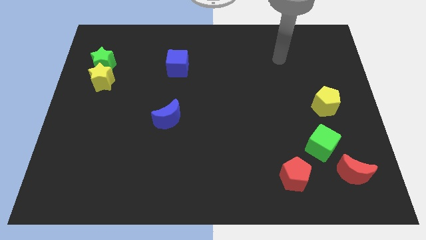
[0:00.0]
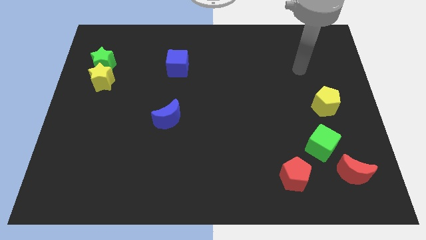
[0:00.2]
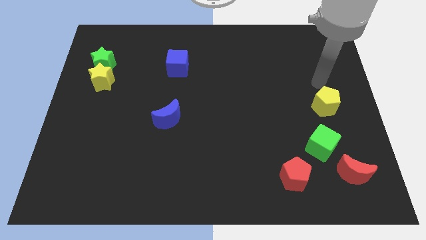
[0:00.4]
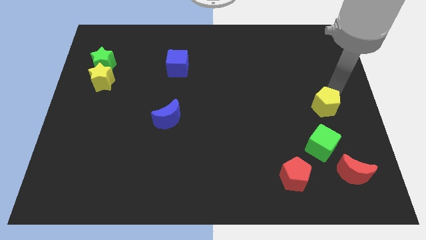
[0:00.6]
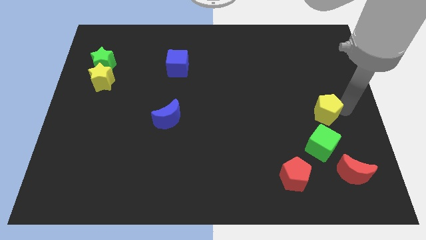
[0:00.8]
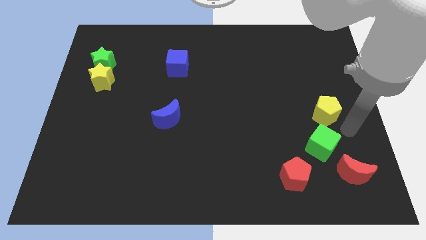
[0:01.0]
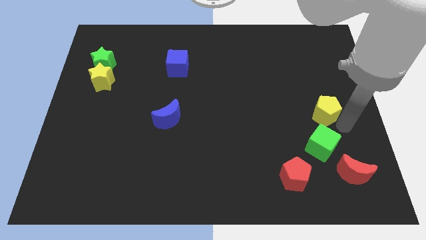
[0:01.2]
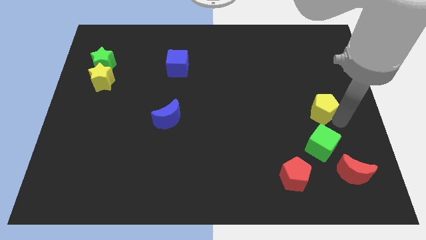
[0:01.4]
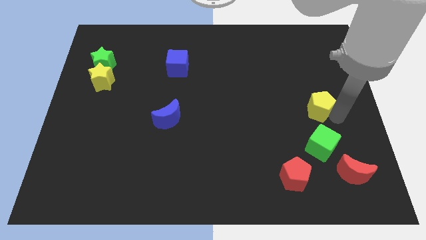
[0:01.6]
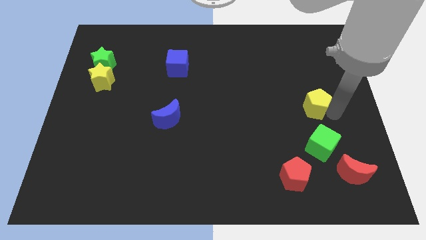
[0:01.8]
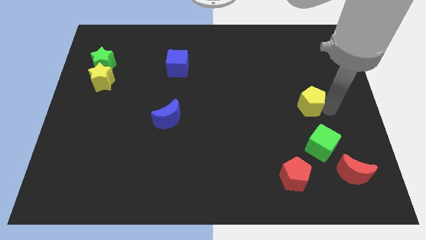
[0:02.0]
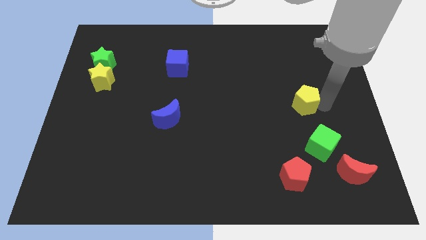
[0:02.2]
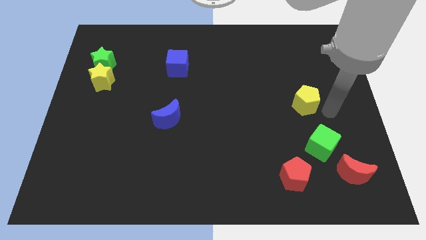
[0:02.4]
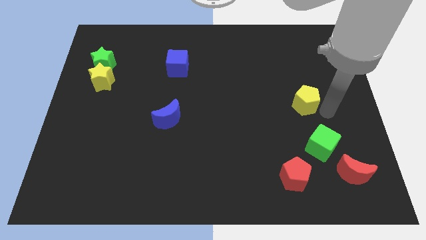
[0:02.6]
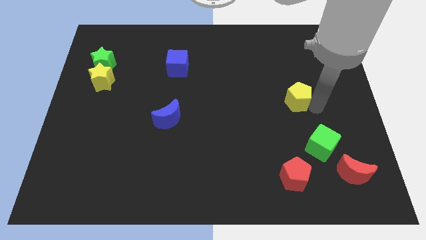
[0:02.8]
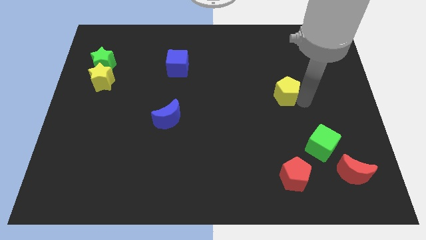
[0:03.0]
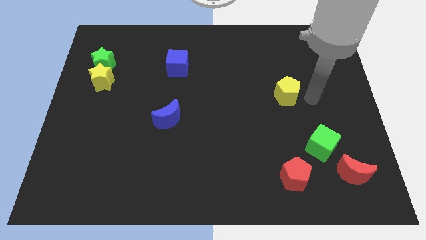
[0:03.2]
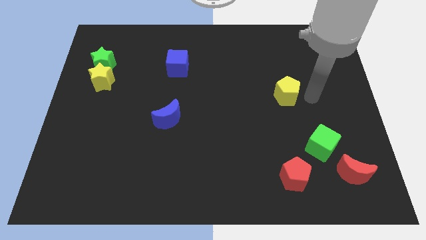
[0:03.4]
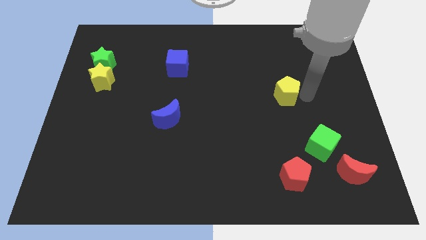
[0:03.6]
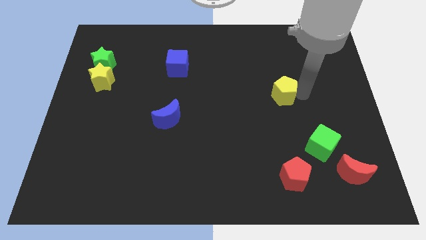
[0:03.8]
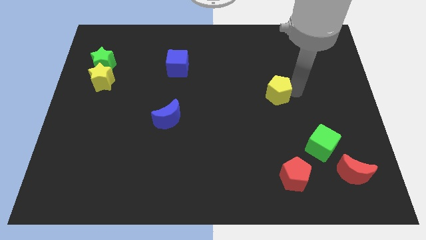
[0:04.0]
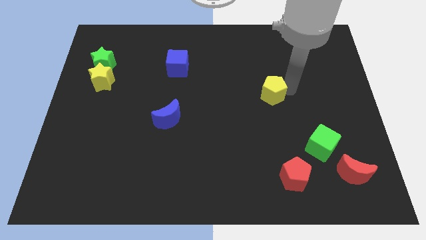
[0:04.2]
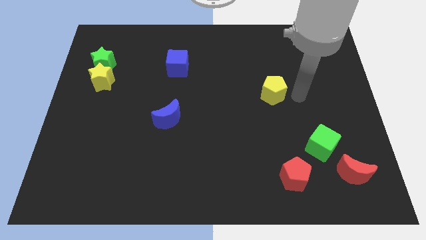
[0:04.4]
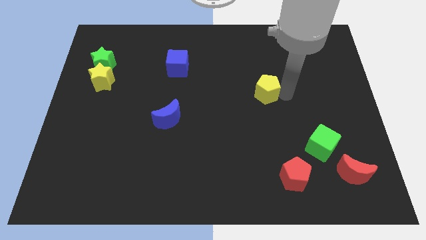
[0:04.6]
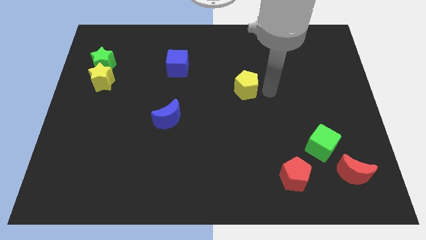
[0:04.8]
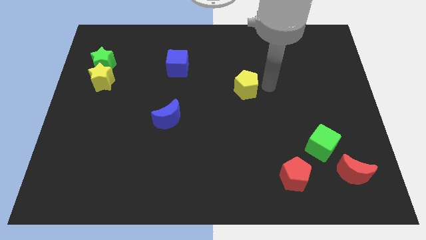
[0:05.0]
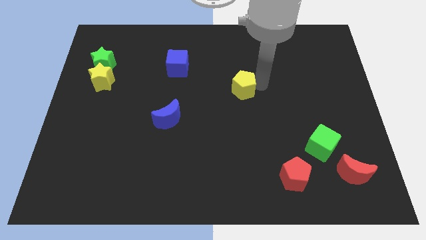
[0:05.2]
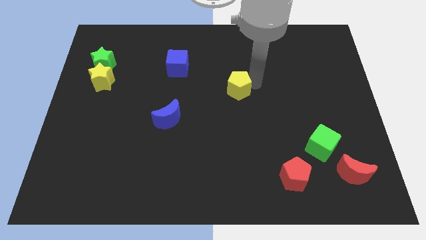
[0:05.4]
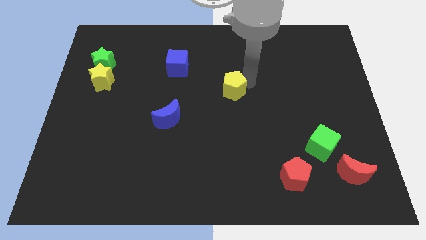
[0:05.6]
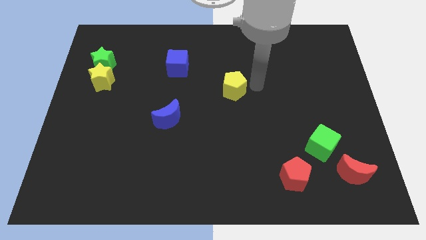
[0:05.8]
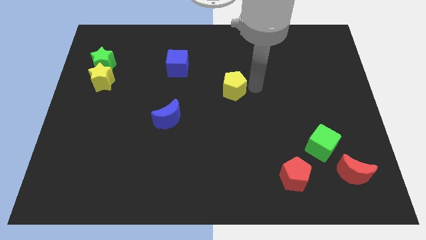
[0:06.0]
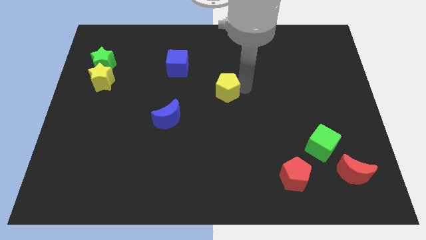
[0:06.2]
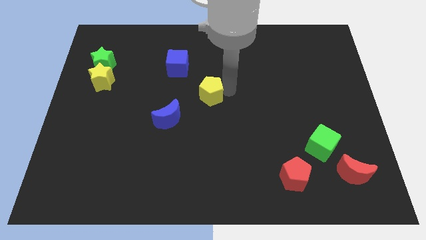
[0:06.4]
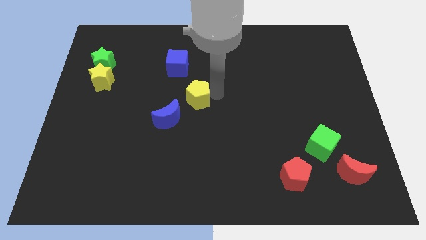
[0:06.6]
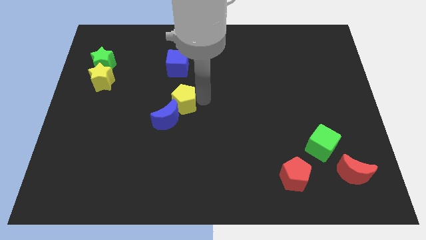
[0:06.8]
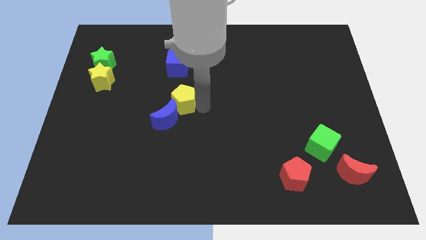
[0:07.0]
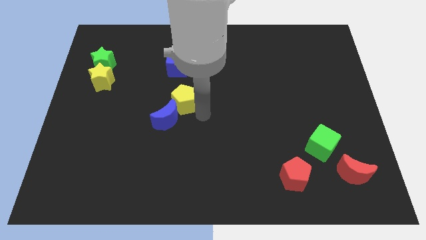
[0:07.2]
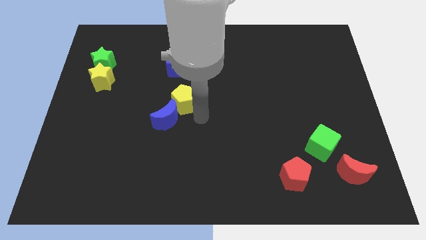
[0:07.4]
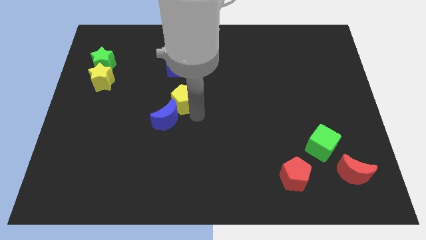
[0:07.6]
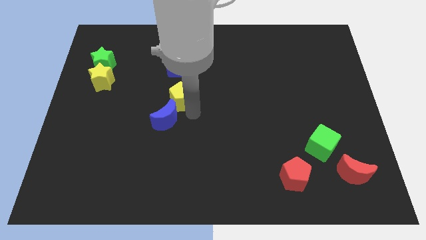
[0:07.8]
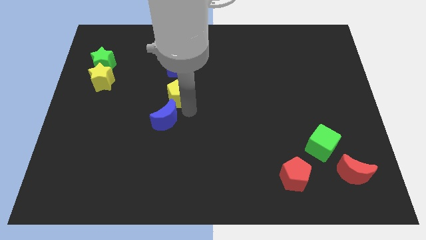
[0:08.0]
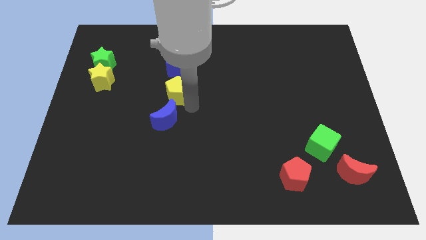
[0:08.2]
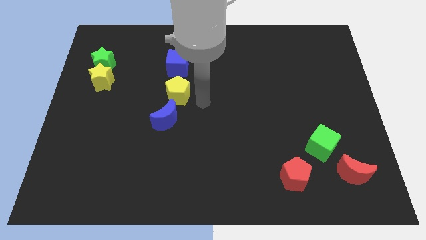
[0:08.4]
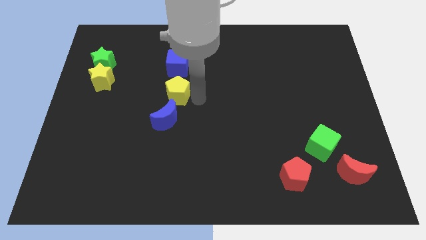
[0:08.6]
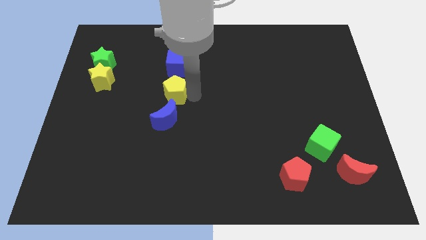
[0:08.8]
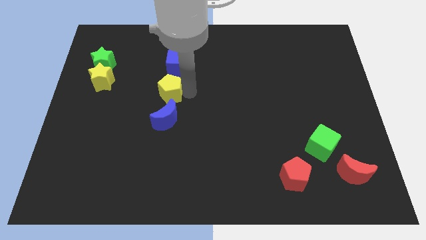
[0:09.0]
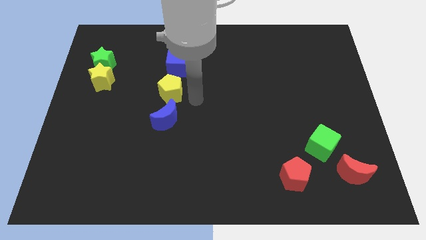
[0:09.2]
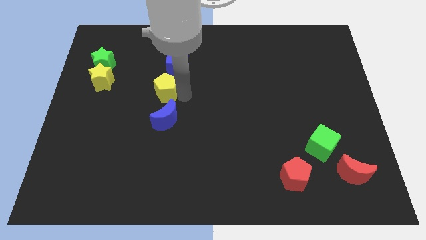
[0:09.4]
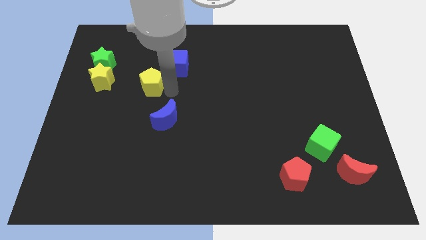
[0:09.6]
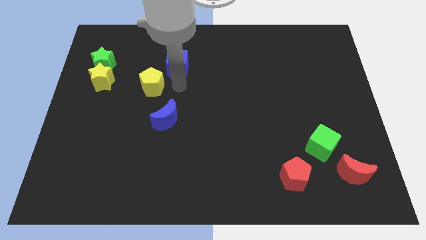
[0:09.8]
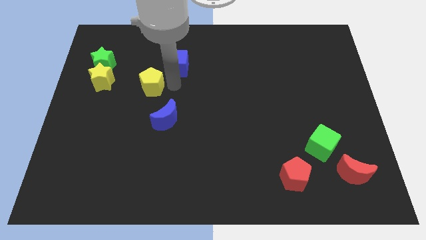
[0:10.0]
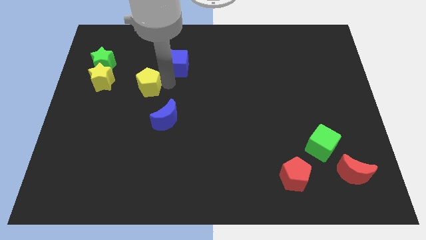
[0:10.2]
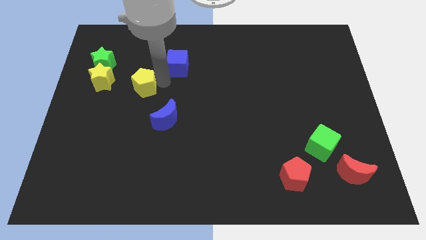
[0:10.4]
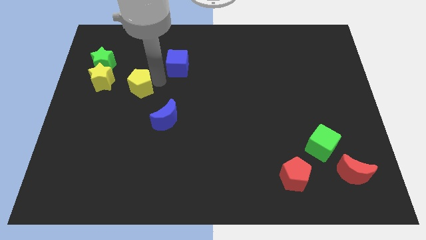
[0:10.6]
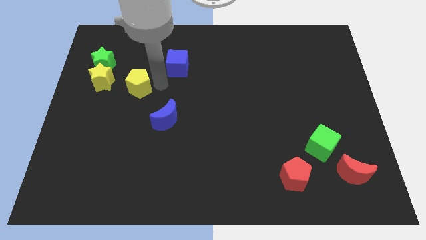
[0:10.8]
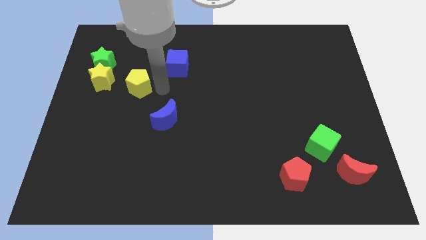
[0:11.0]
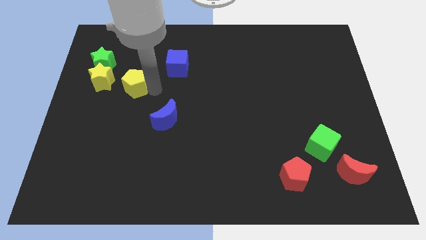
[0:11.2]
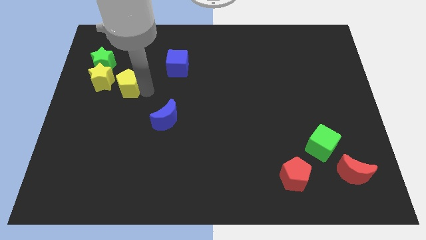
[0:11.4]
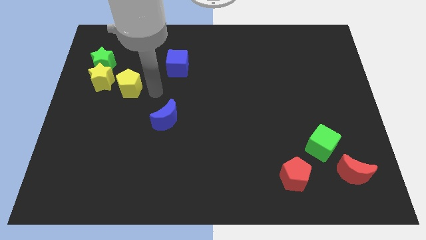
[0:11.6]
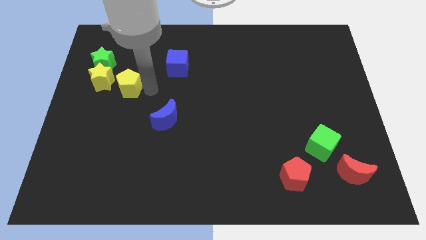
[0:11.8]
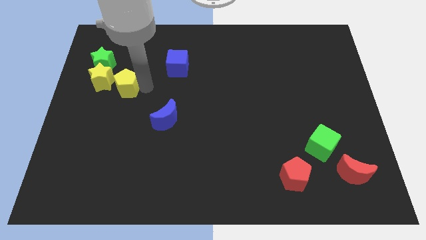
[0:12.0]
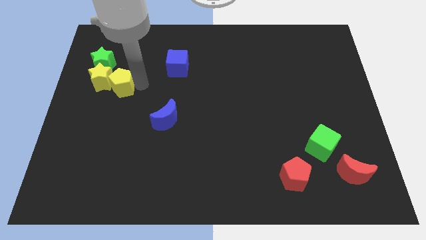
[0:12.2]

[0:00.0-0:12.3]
put the yellow pentagon close to the yellow star

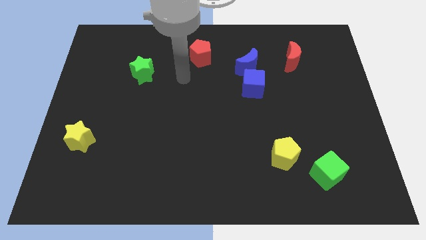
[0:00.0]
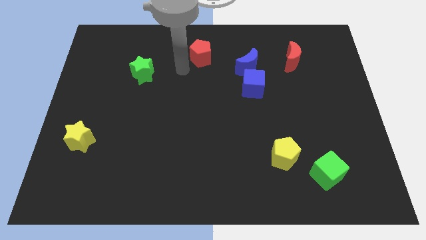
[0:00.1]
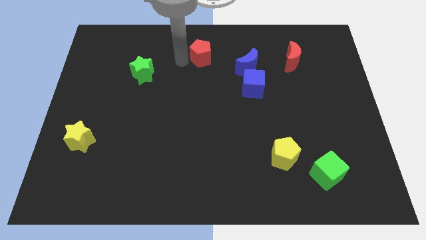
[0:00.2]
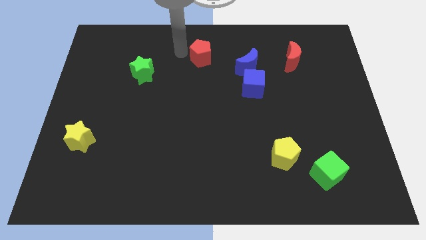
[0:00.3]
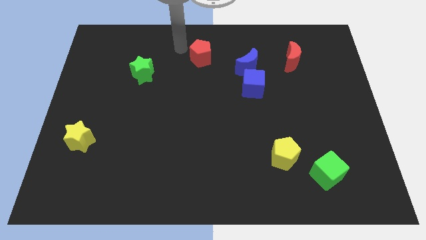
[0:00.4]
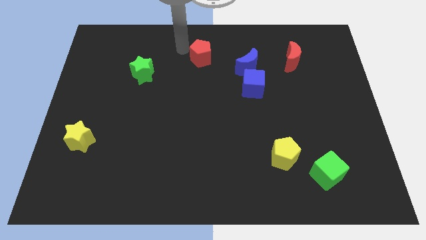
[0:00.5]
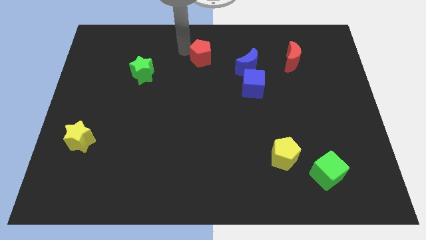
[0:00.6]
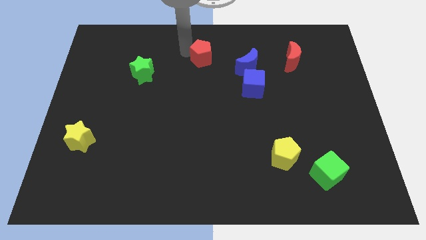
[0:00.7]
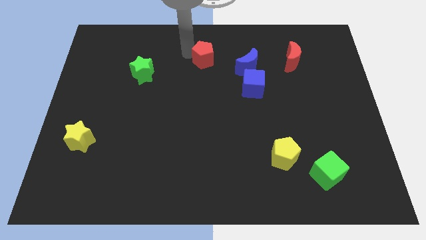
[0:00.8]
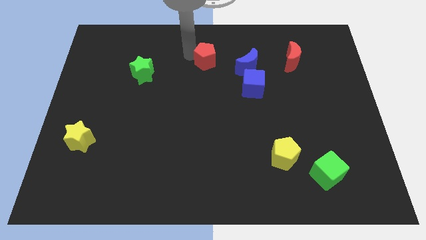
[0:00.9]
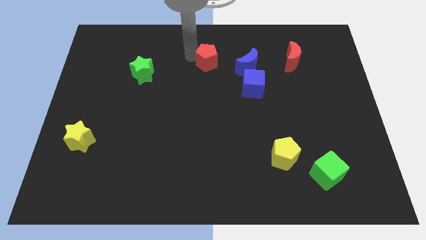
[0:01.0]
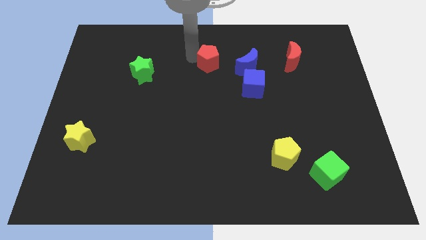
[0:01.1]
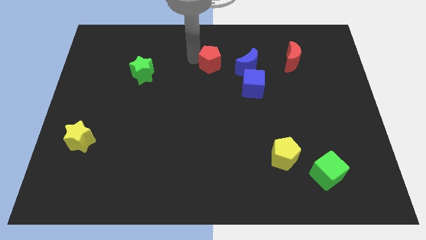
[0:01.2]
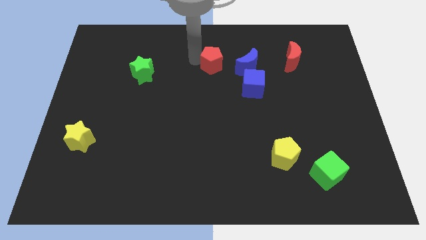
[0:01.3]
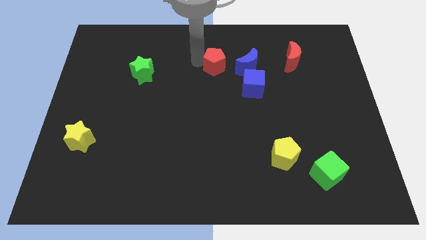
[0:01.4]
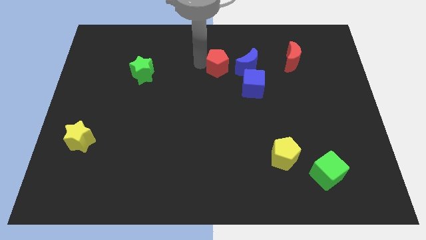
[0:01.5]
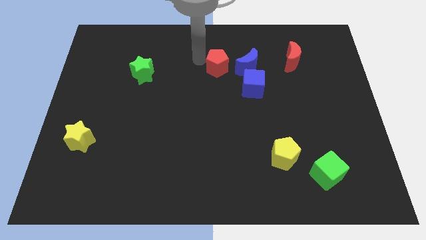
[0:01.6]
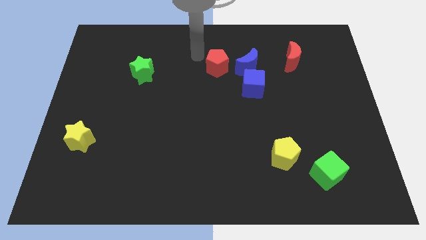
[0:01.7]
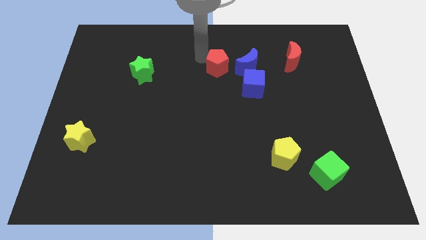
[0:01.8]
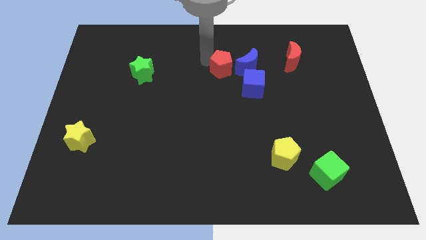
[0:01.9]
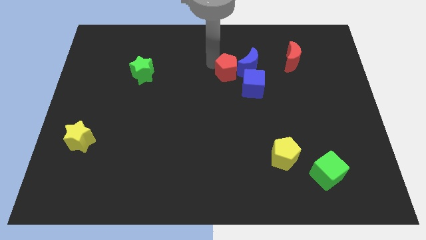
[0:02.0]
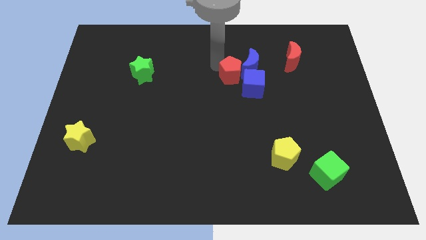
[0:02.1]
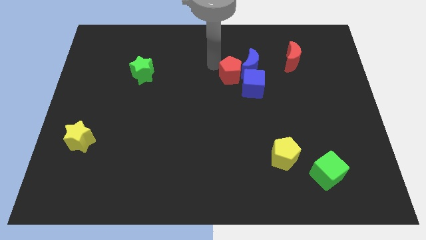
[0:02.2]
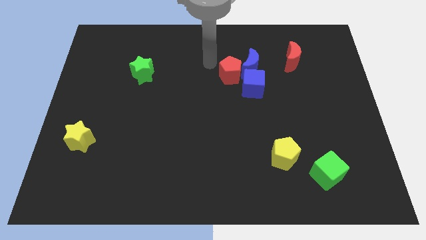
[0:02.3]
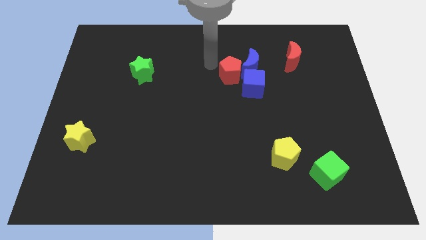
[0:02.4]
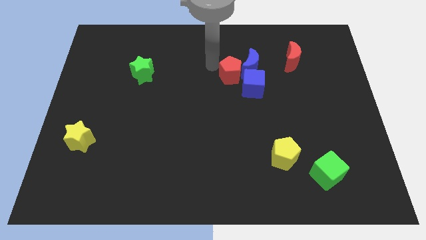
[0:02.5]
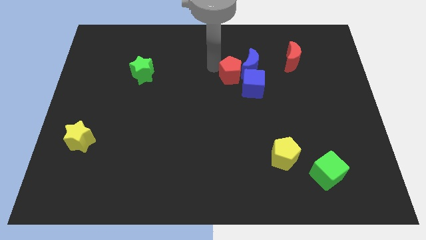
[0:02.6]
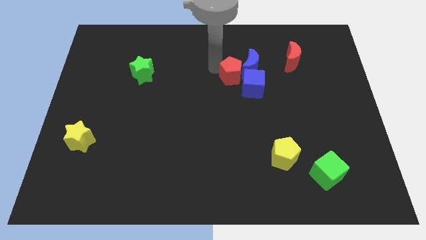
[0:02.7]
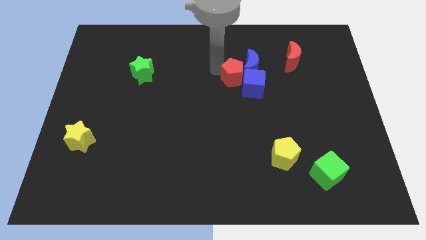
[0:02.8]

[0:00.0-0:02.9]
put the red pentagon next to the blue cube
